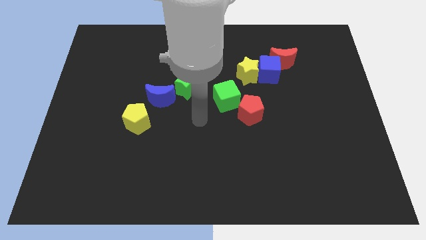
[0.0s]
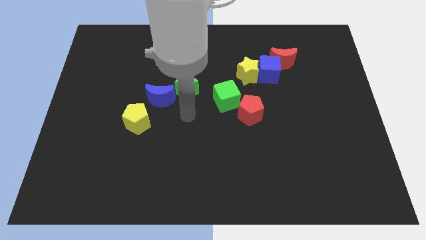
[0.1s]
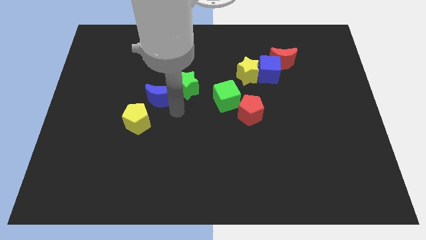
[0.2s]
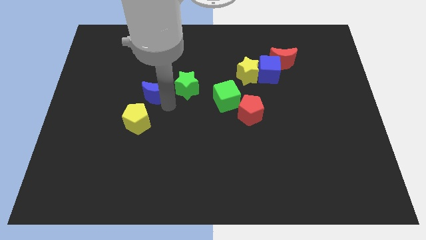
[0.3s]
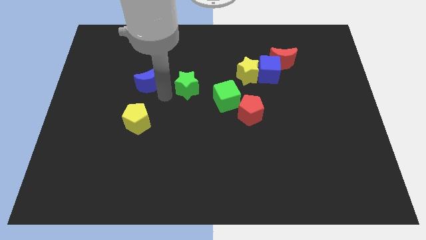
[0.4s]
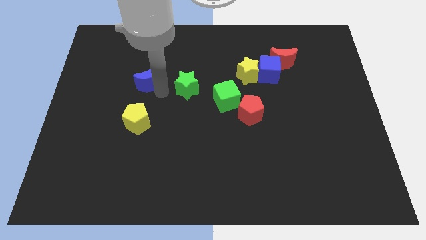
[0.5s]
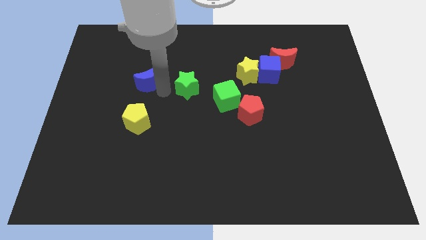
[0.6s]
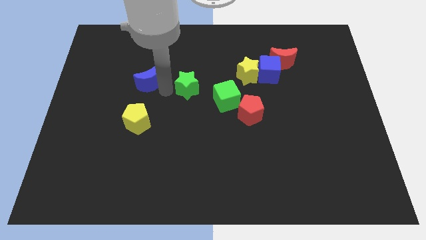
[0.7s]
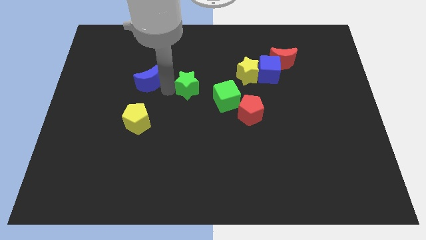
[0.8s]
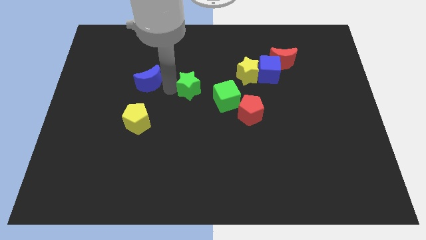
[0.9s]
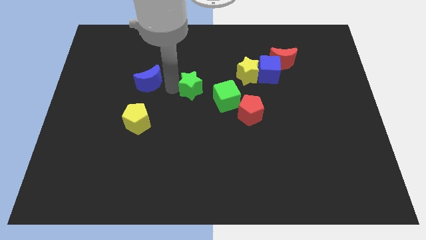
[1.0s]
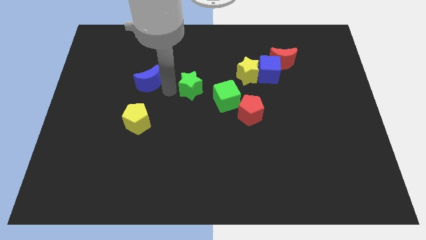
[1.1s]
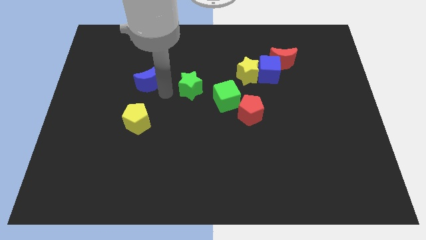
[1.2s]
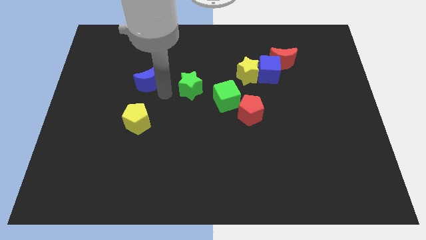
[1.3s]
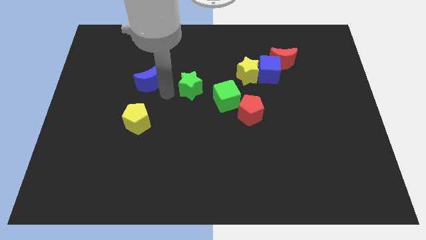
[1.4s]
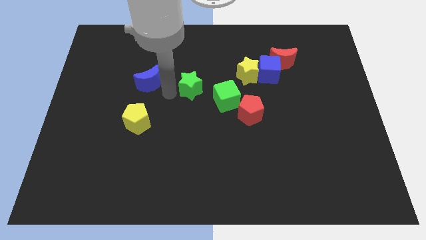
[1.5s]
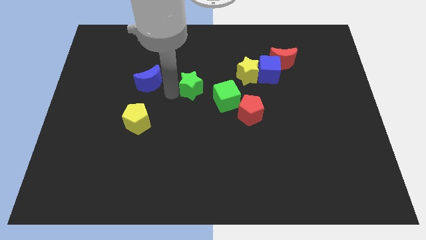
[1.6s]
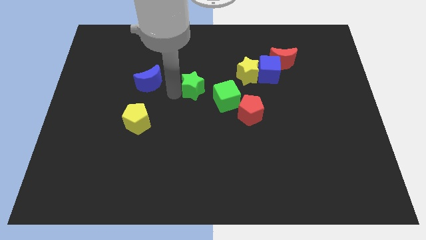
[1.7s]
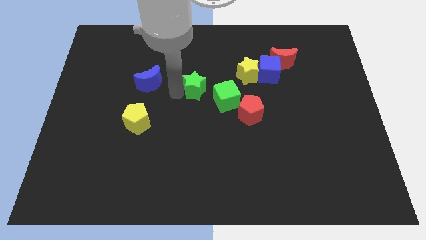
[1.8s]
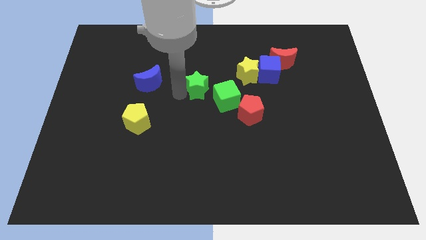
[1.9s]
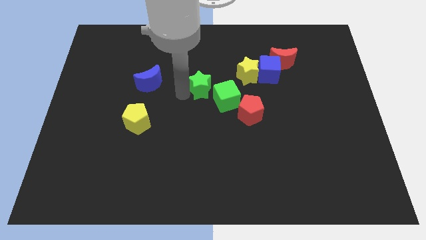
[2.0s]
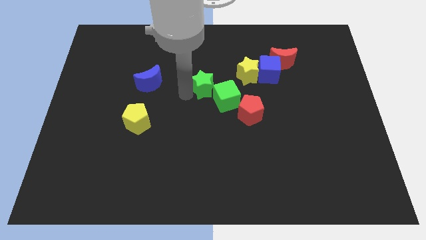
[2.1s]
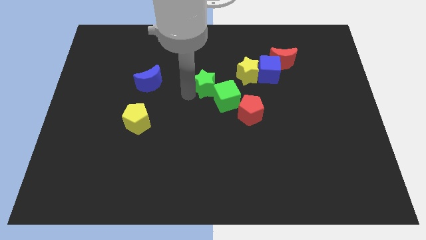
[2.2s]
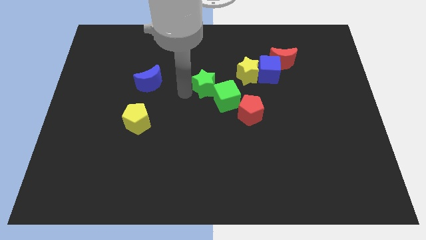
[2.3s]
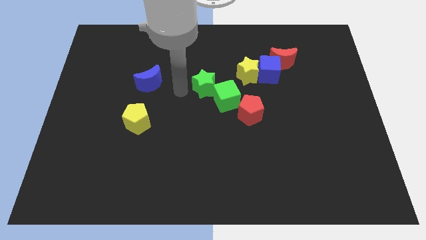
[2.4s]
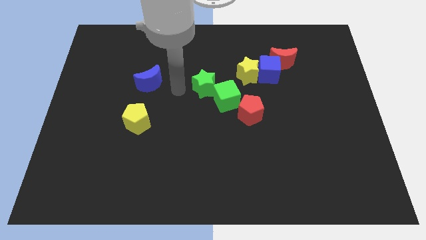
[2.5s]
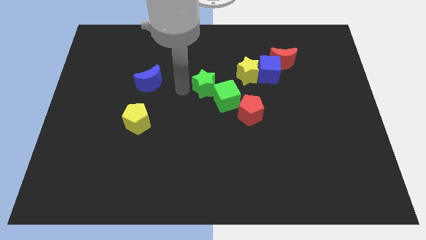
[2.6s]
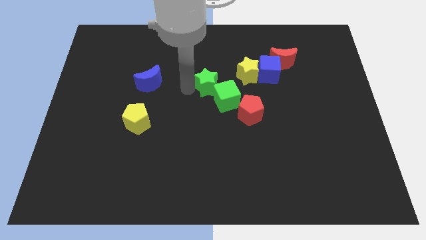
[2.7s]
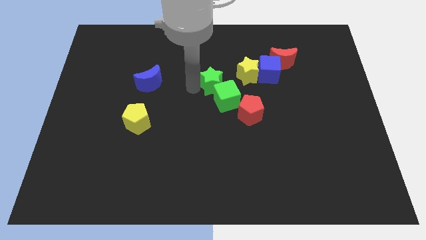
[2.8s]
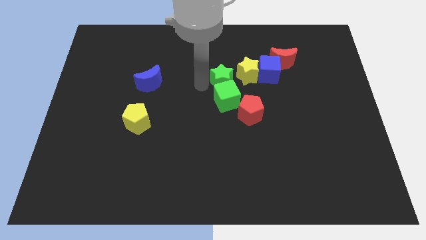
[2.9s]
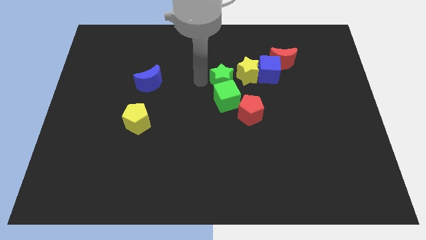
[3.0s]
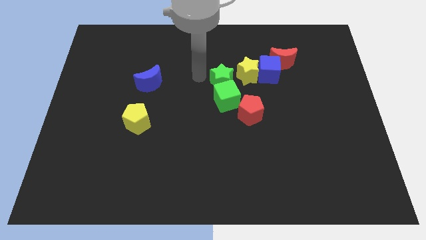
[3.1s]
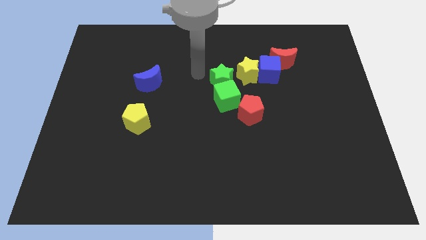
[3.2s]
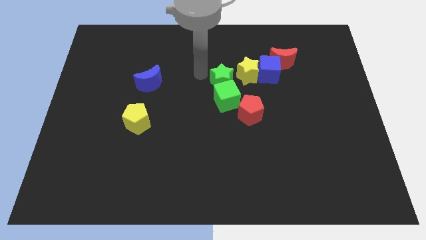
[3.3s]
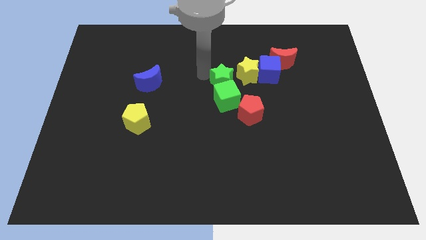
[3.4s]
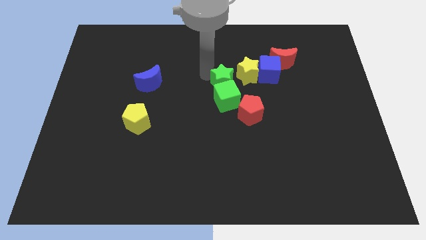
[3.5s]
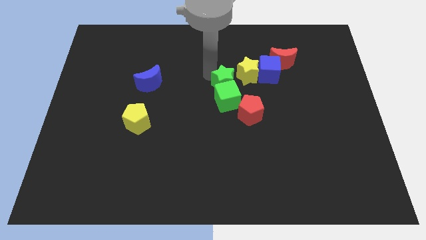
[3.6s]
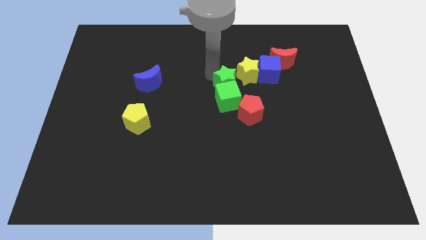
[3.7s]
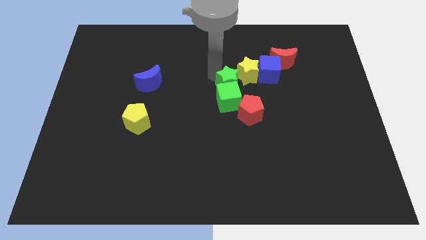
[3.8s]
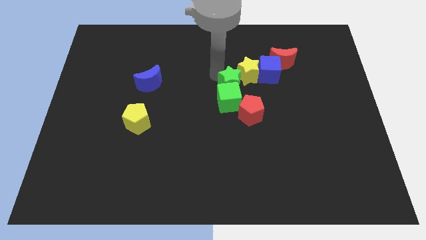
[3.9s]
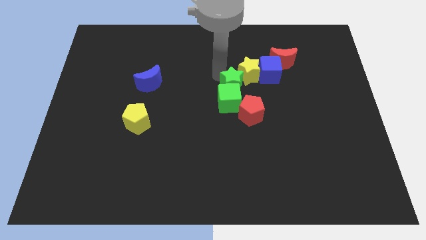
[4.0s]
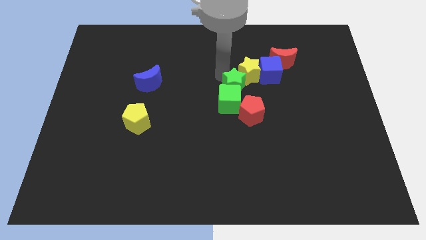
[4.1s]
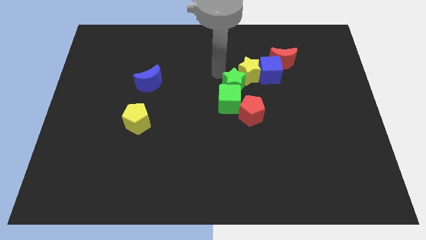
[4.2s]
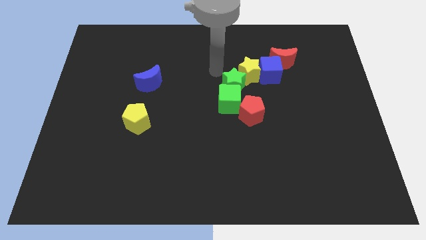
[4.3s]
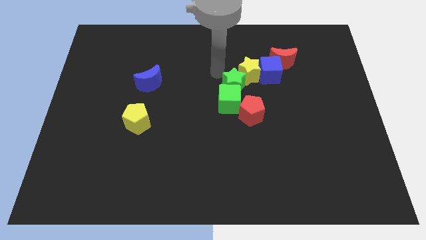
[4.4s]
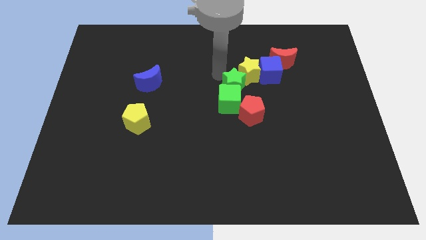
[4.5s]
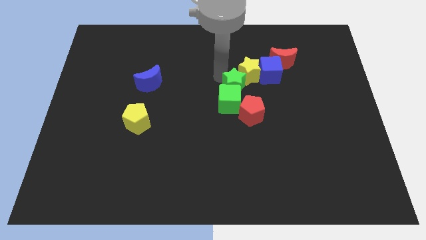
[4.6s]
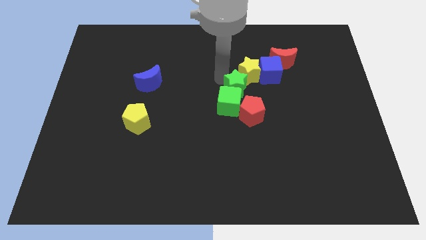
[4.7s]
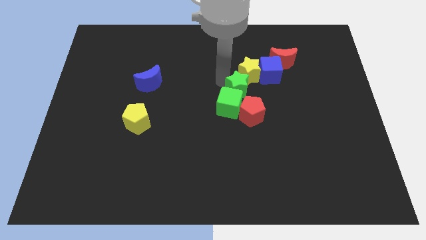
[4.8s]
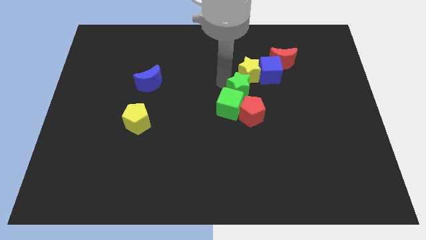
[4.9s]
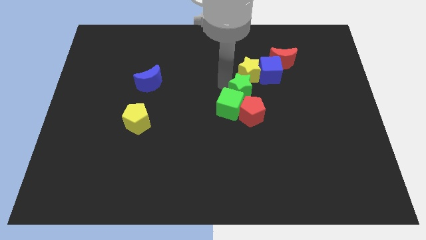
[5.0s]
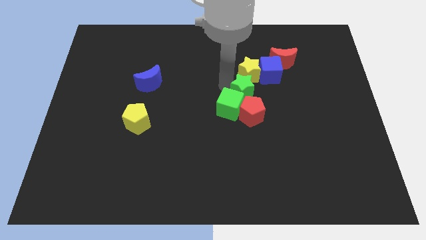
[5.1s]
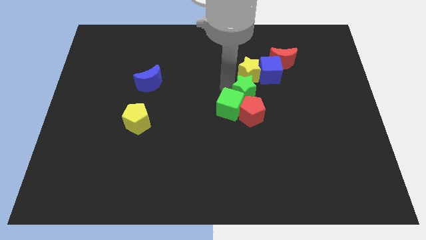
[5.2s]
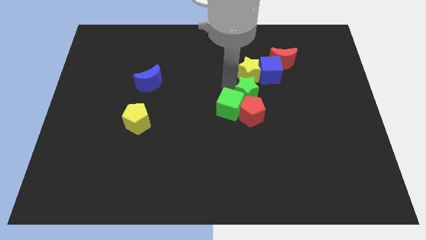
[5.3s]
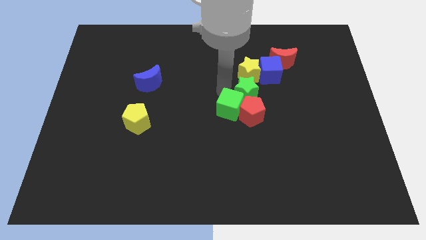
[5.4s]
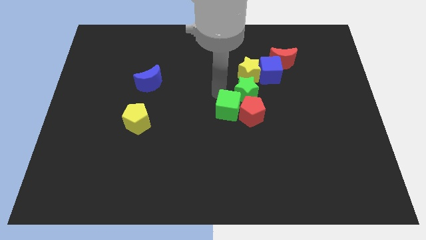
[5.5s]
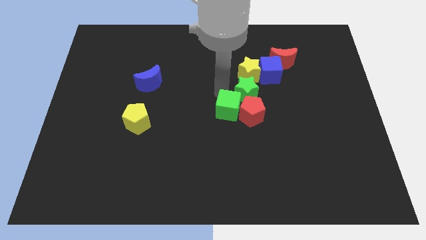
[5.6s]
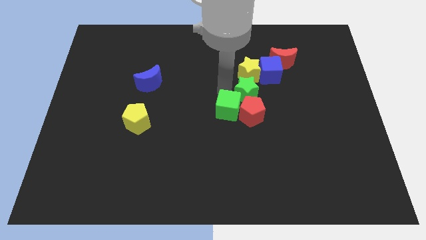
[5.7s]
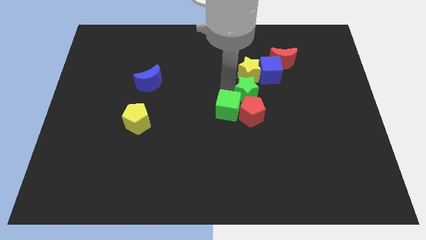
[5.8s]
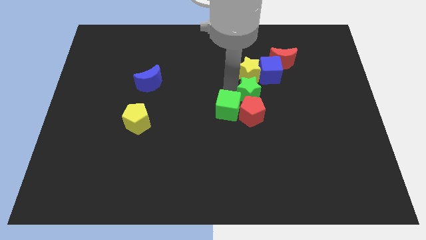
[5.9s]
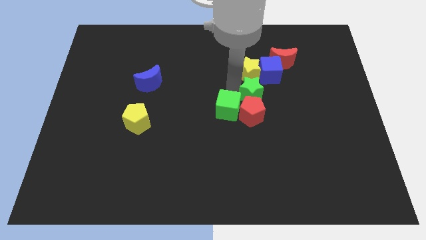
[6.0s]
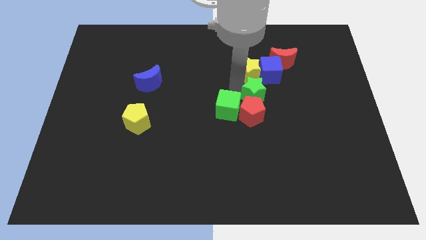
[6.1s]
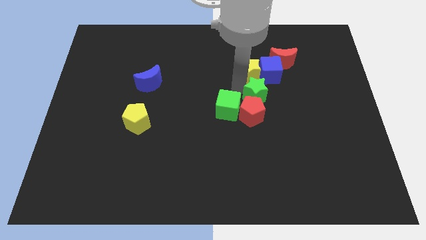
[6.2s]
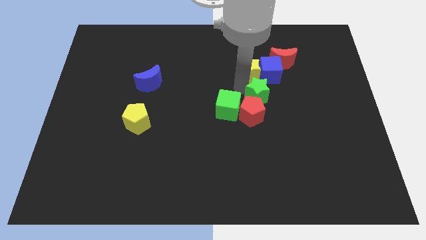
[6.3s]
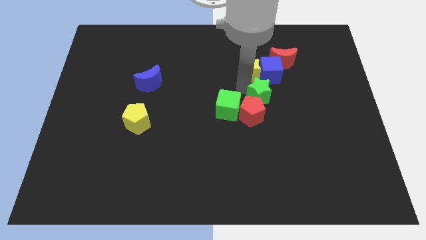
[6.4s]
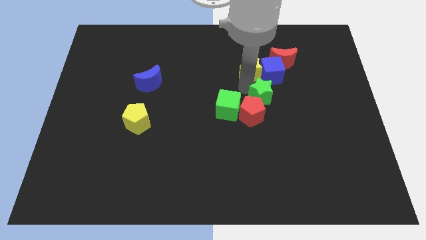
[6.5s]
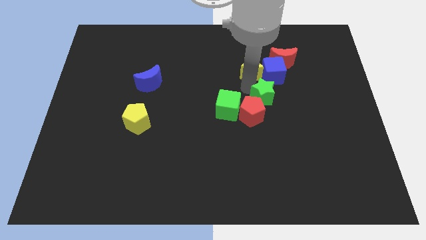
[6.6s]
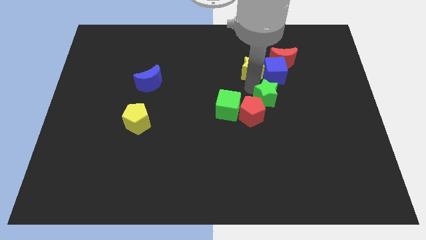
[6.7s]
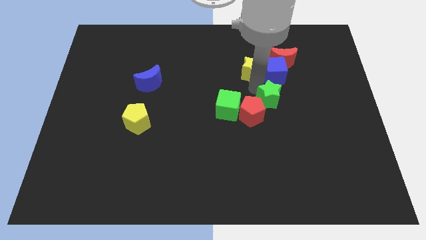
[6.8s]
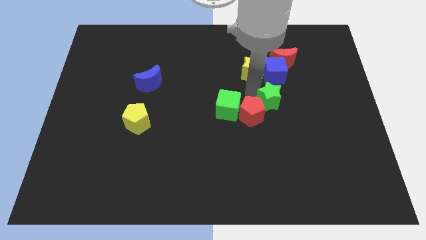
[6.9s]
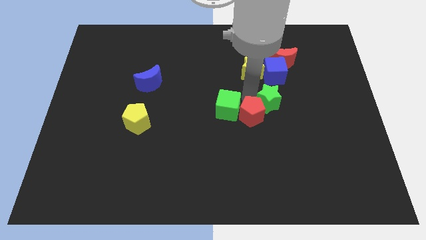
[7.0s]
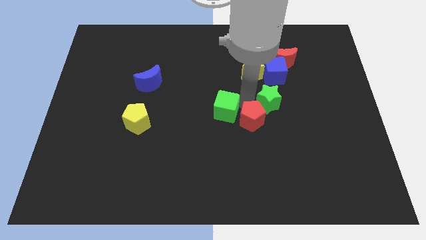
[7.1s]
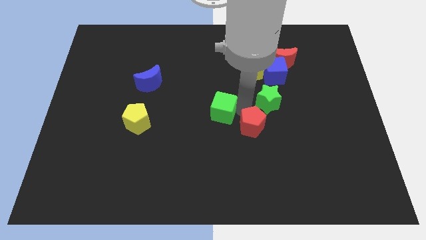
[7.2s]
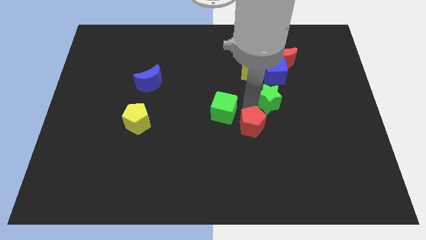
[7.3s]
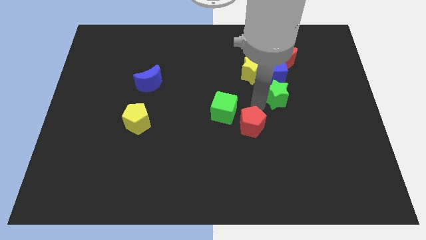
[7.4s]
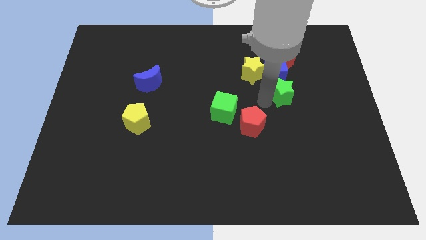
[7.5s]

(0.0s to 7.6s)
slide the green star to the bottom right of the blue cube
